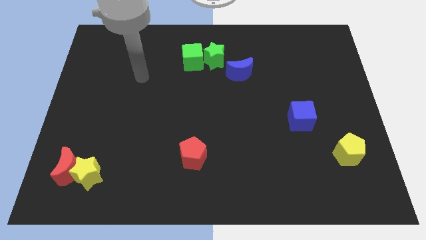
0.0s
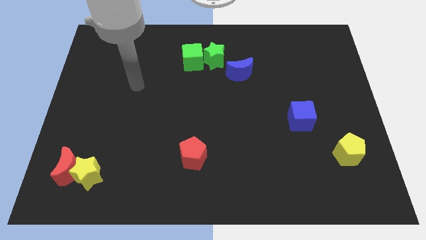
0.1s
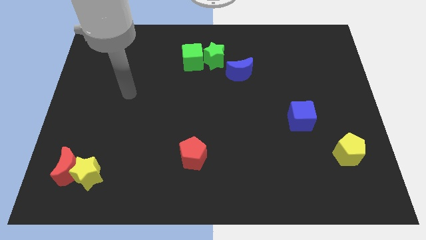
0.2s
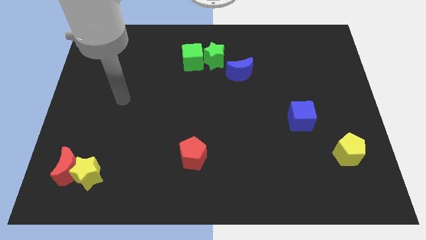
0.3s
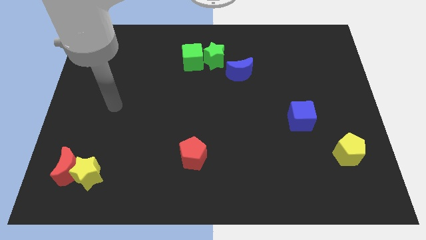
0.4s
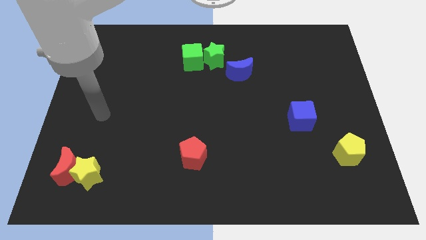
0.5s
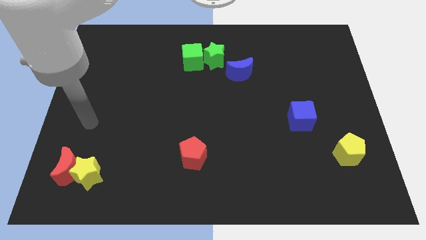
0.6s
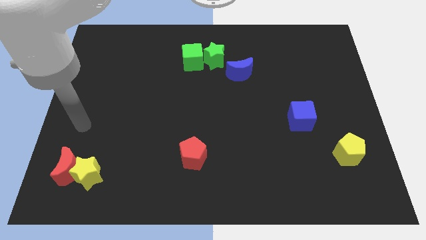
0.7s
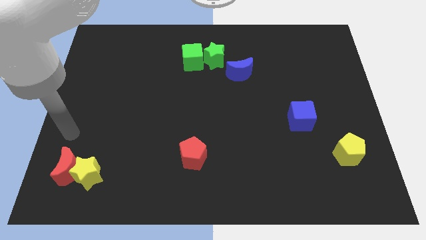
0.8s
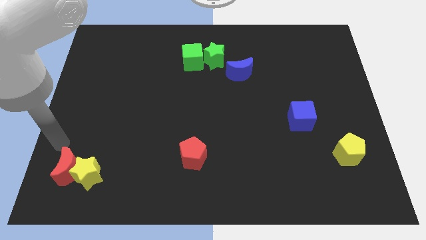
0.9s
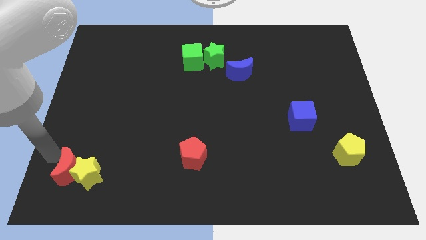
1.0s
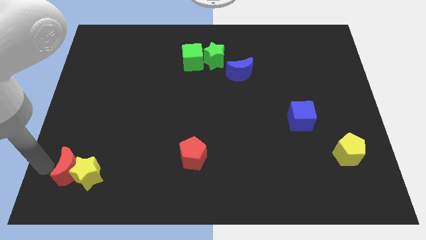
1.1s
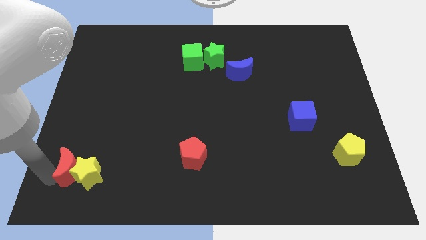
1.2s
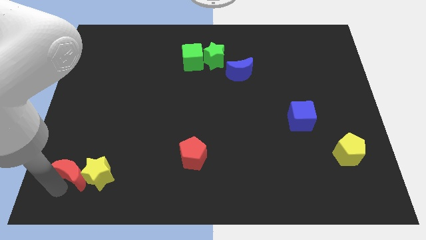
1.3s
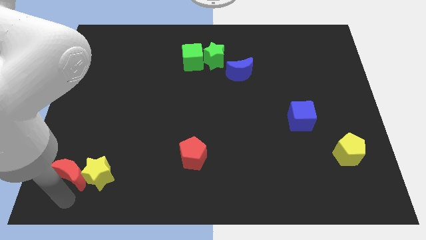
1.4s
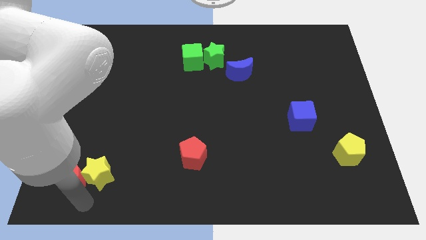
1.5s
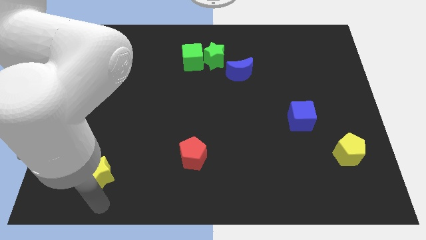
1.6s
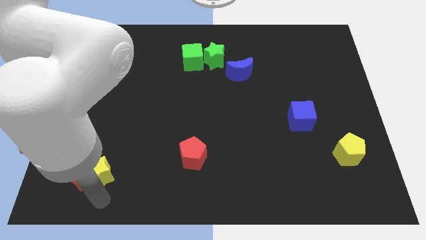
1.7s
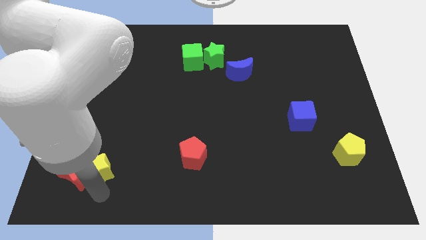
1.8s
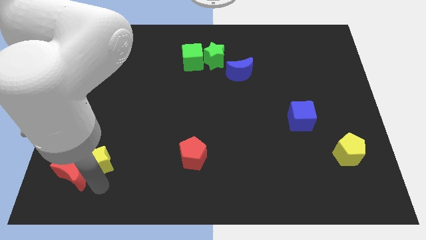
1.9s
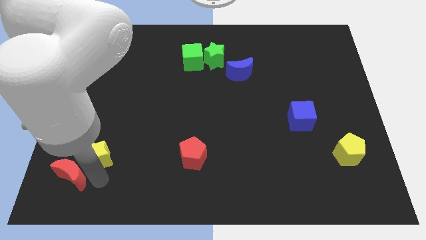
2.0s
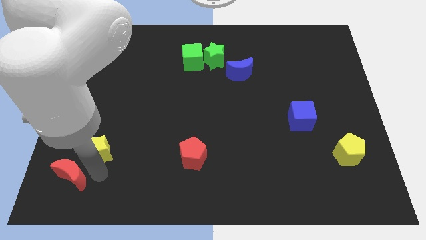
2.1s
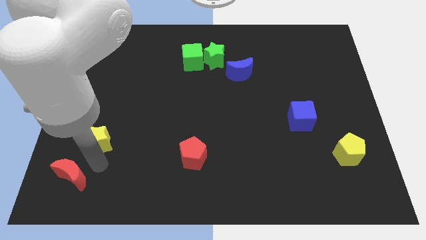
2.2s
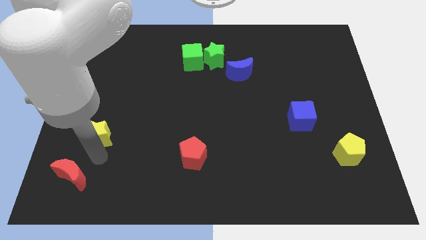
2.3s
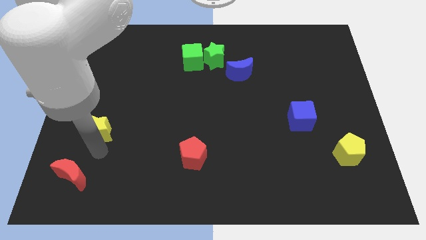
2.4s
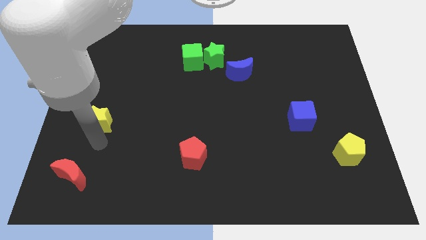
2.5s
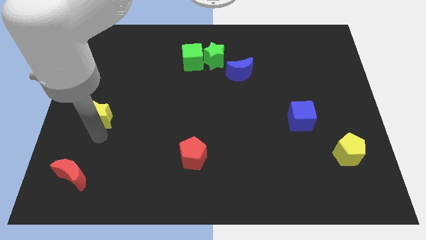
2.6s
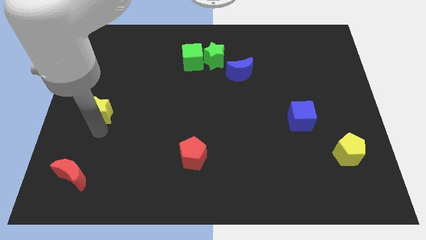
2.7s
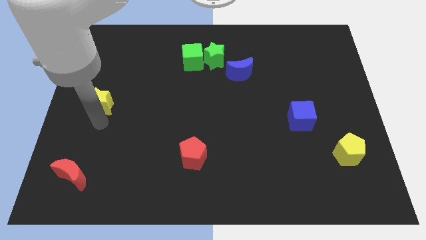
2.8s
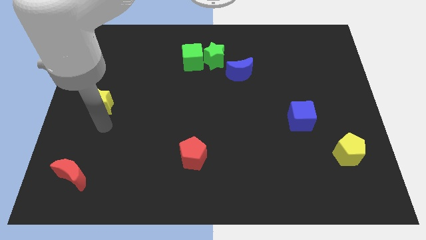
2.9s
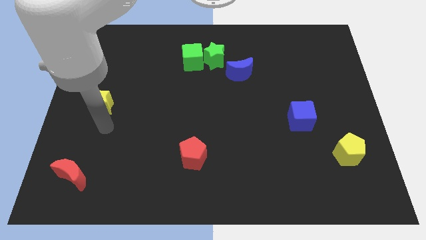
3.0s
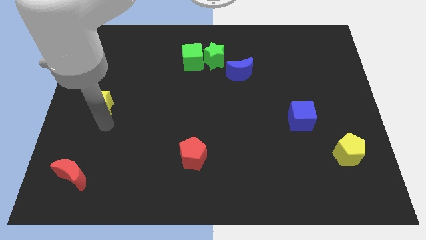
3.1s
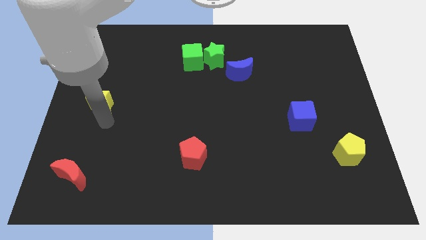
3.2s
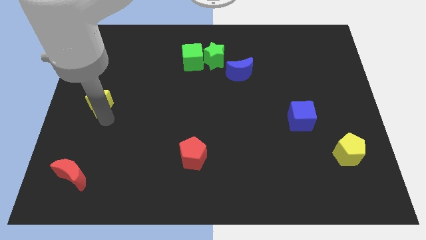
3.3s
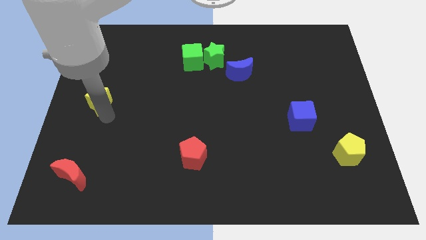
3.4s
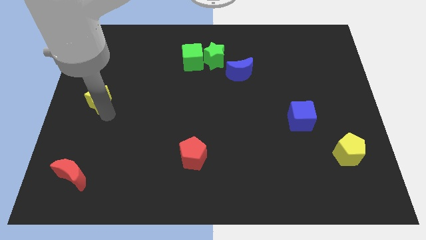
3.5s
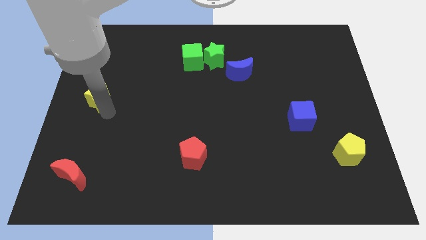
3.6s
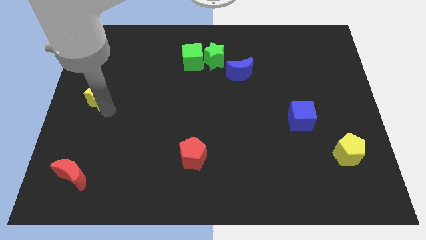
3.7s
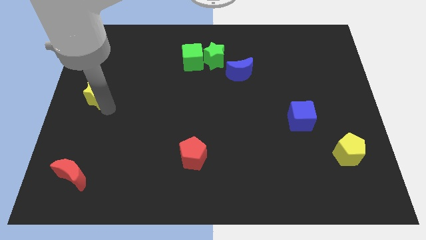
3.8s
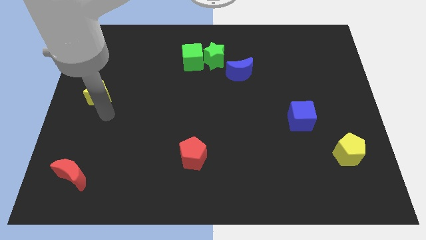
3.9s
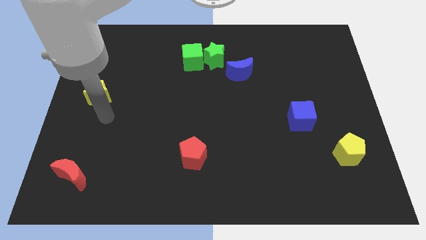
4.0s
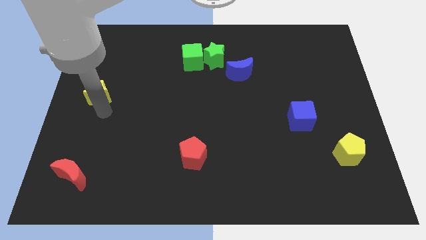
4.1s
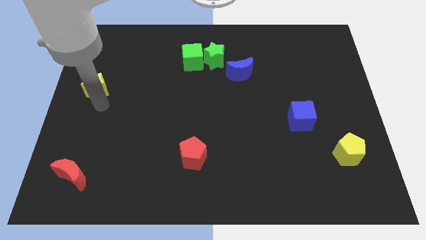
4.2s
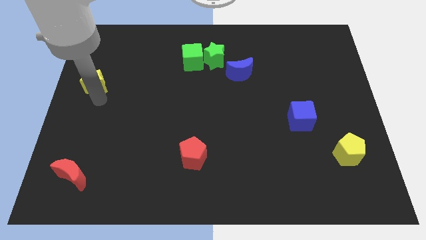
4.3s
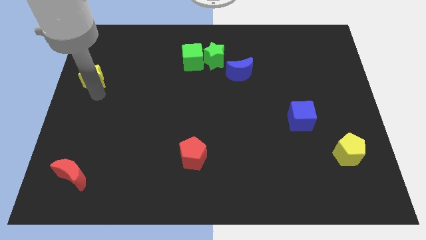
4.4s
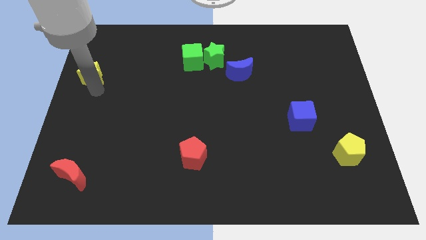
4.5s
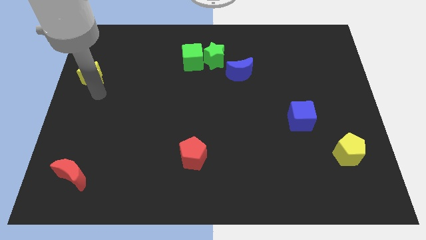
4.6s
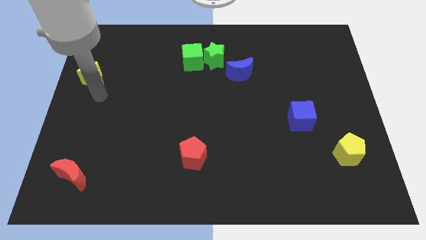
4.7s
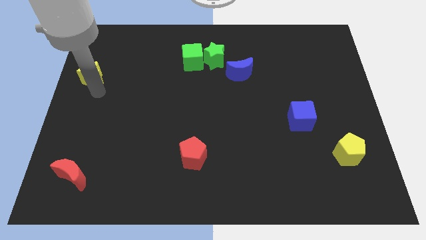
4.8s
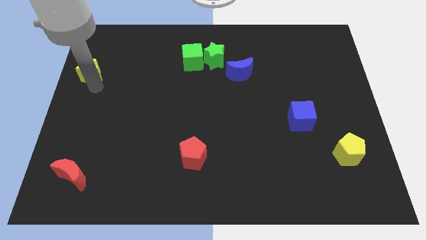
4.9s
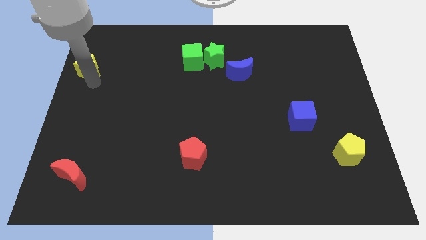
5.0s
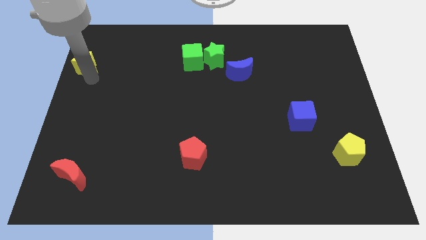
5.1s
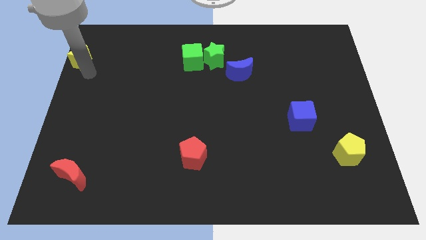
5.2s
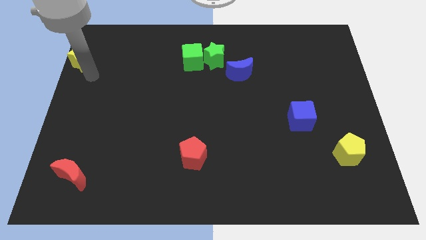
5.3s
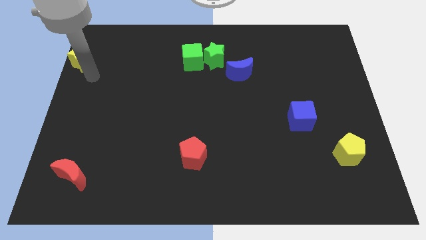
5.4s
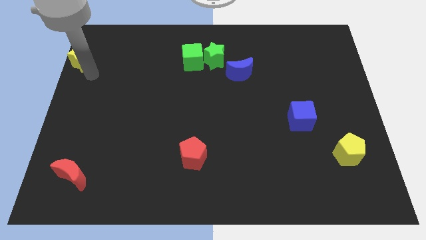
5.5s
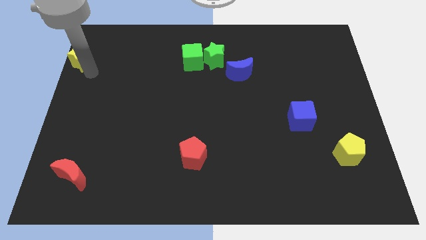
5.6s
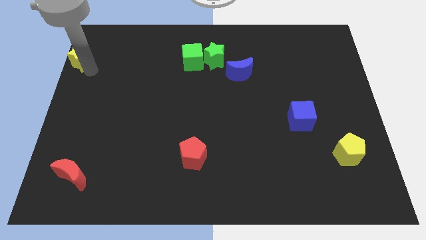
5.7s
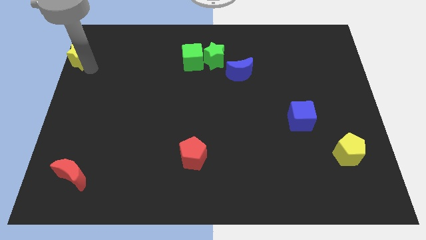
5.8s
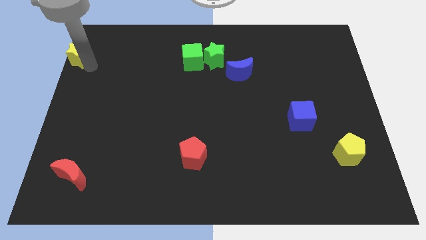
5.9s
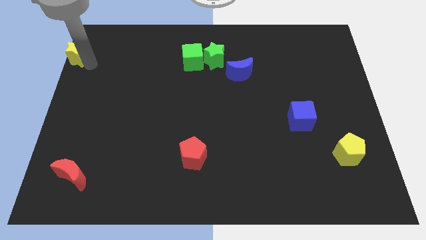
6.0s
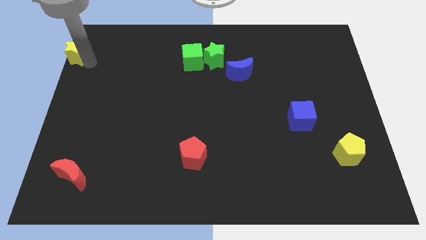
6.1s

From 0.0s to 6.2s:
put the yellow star to the upper left corner
